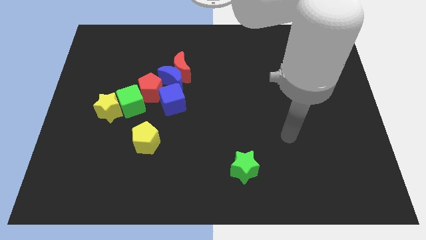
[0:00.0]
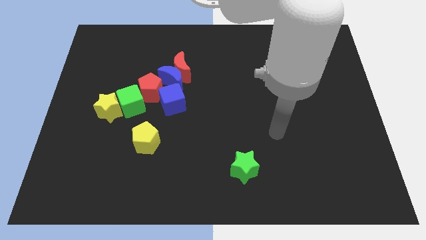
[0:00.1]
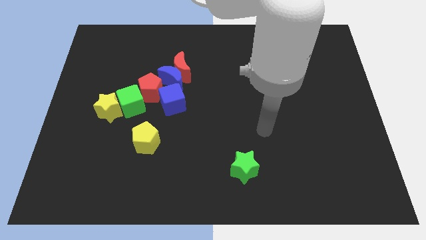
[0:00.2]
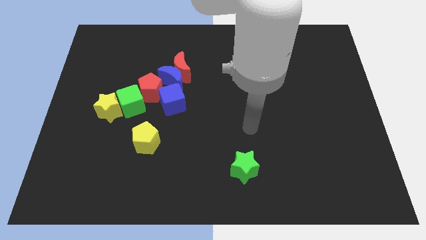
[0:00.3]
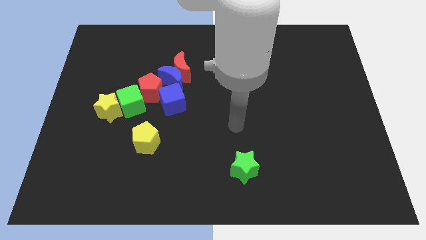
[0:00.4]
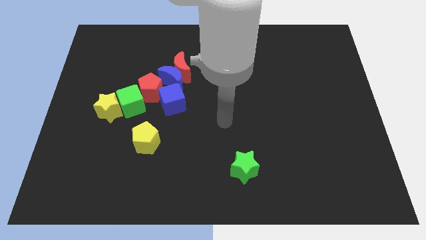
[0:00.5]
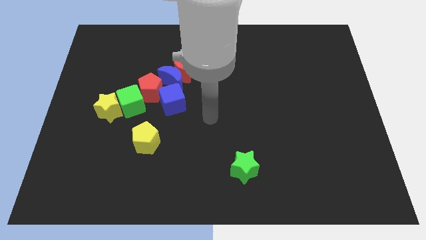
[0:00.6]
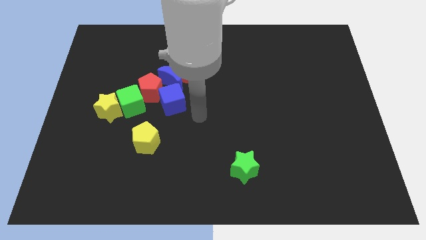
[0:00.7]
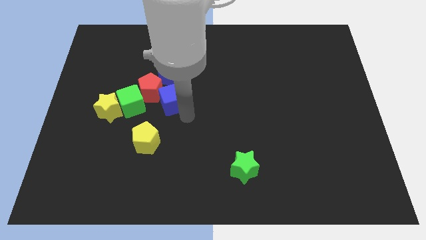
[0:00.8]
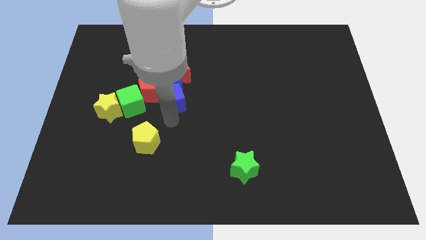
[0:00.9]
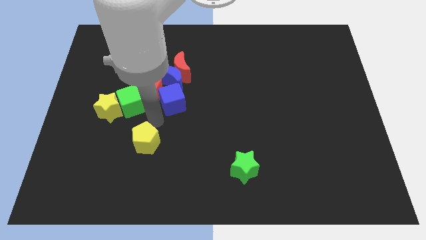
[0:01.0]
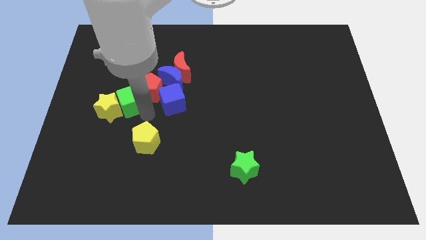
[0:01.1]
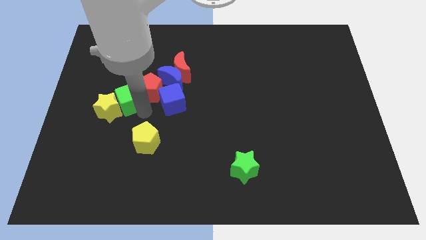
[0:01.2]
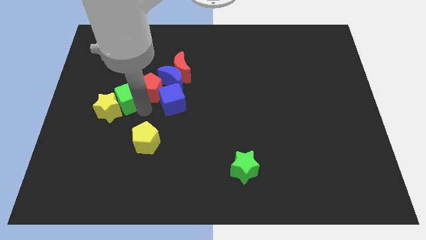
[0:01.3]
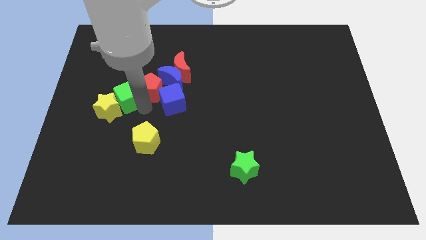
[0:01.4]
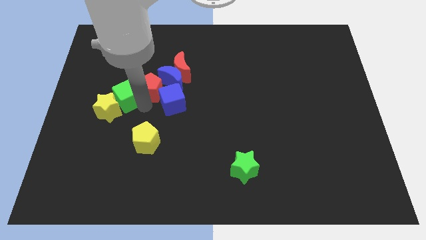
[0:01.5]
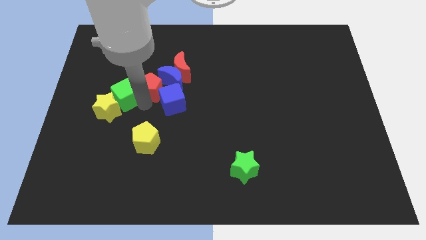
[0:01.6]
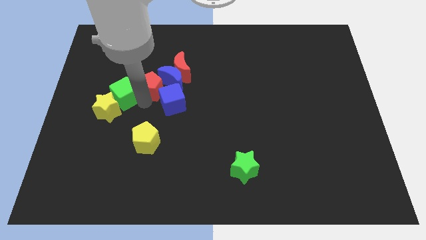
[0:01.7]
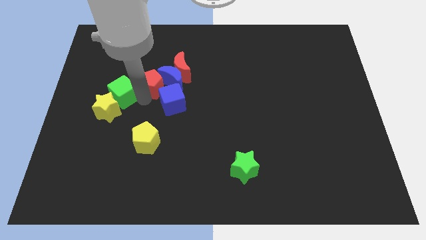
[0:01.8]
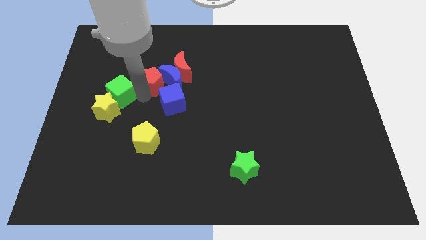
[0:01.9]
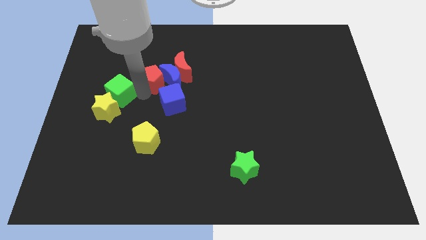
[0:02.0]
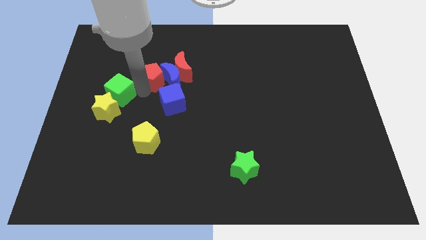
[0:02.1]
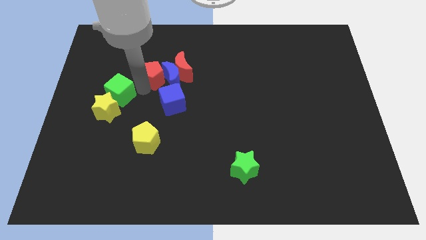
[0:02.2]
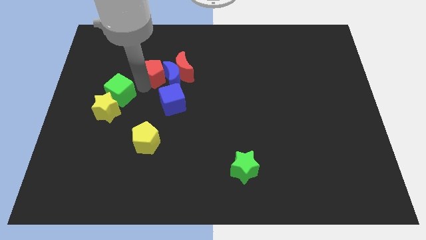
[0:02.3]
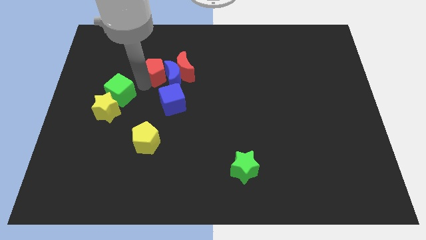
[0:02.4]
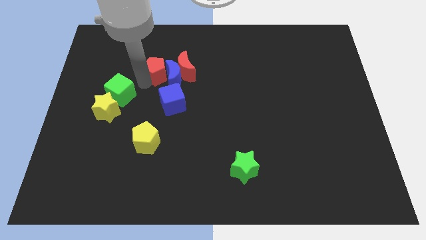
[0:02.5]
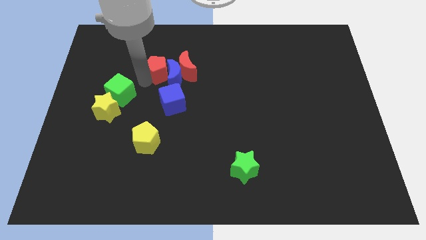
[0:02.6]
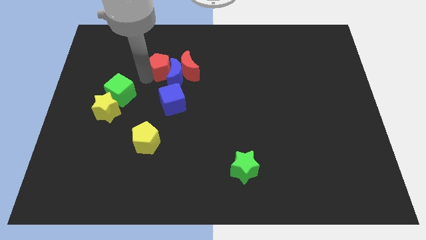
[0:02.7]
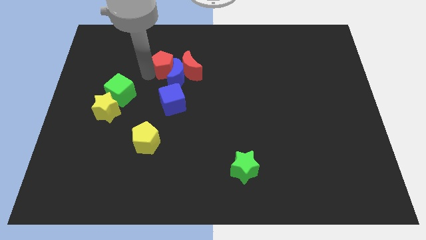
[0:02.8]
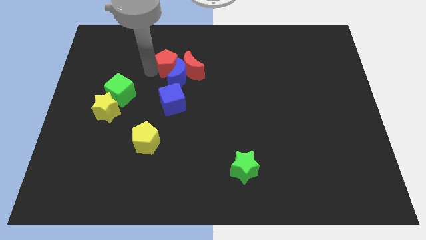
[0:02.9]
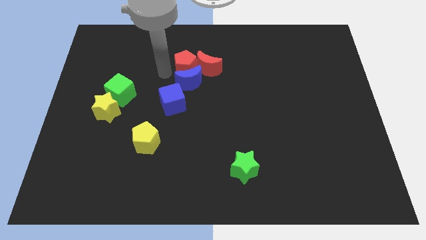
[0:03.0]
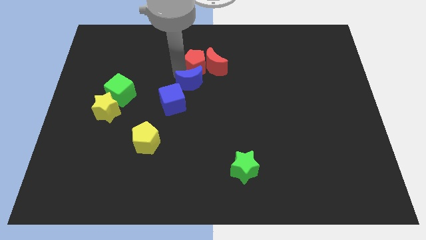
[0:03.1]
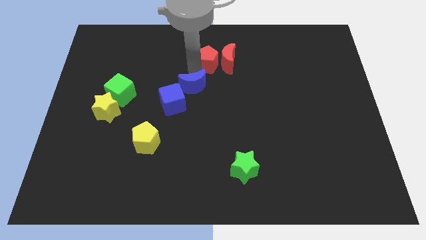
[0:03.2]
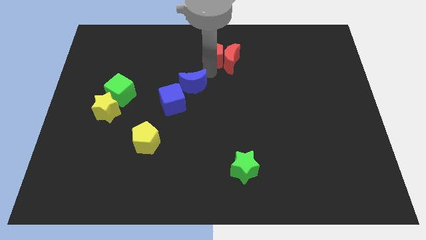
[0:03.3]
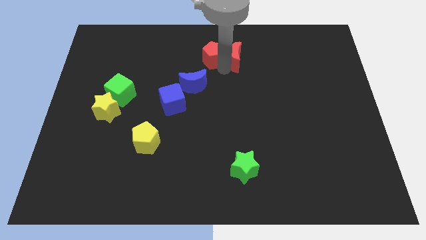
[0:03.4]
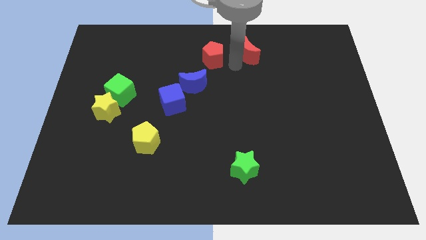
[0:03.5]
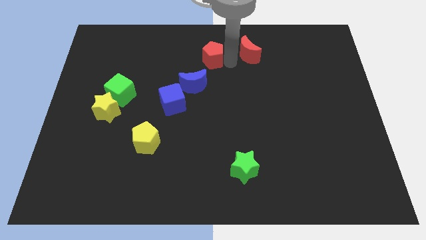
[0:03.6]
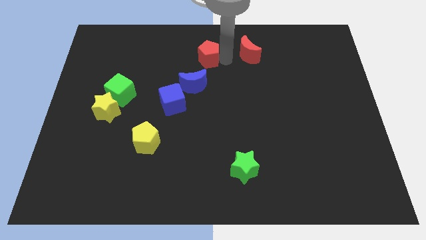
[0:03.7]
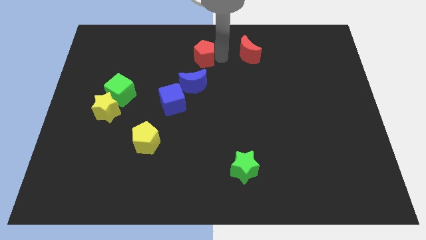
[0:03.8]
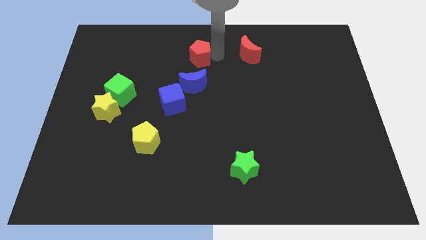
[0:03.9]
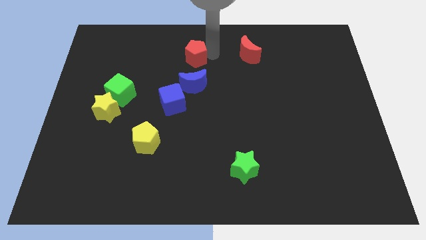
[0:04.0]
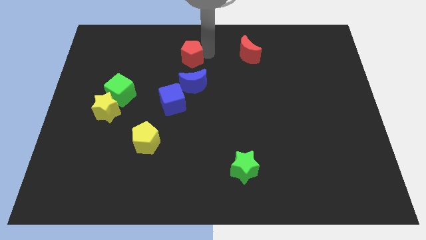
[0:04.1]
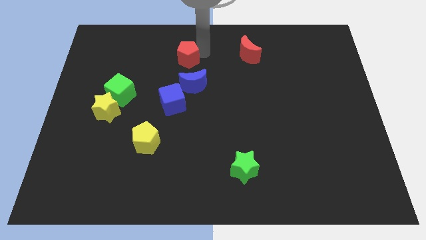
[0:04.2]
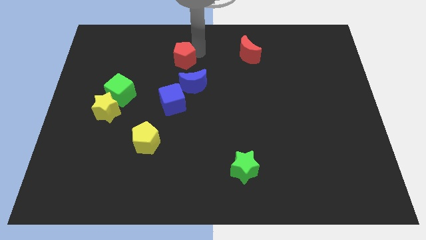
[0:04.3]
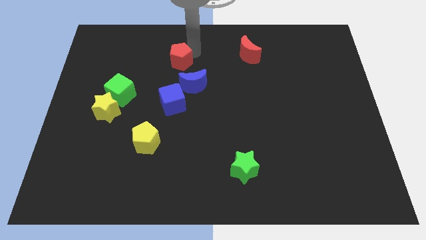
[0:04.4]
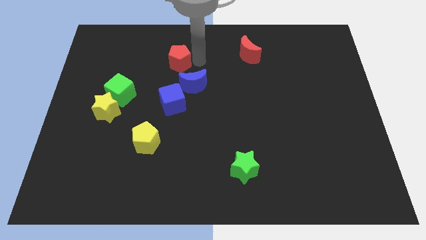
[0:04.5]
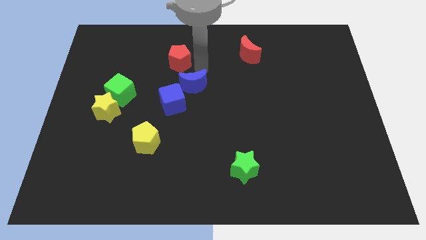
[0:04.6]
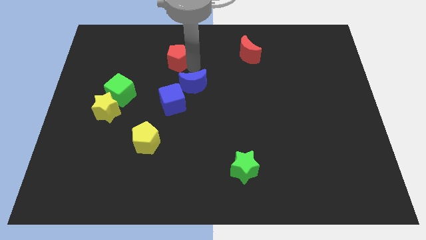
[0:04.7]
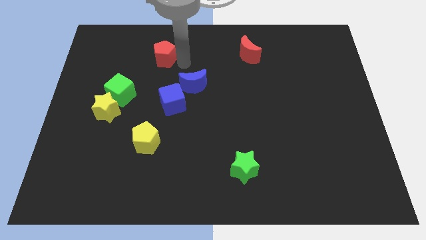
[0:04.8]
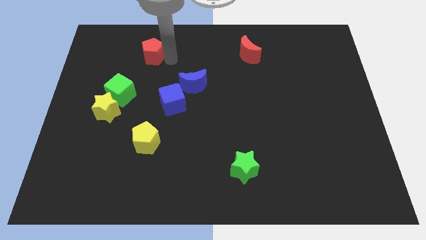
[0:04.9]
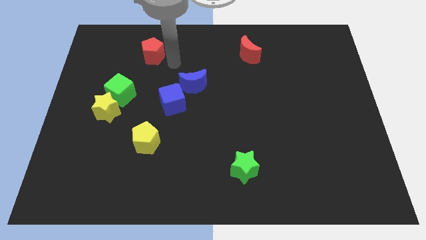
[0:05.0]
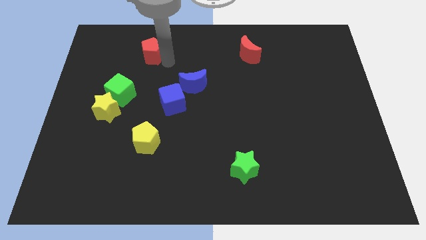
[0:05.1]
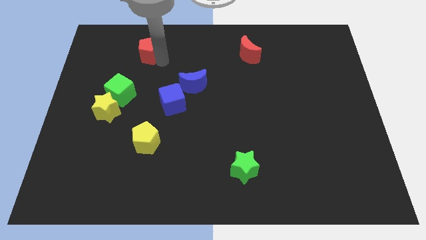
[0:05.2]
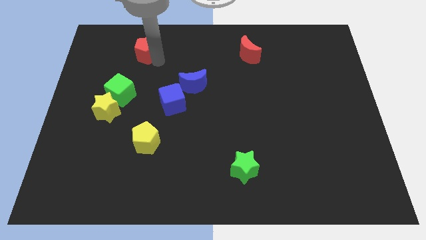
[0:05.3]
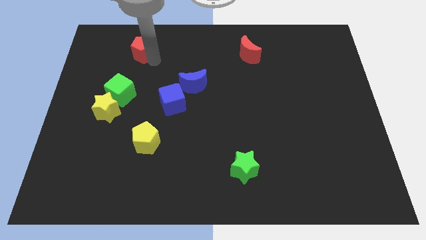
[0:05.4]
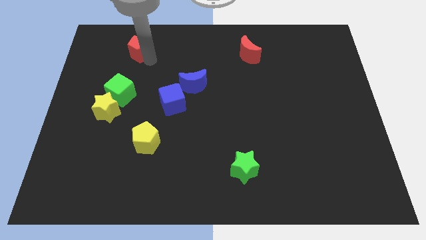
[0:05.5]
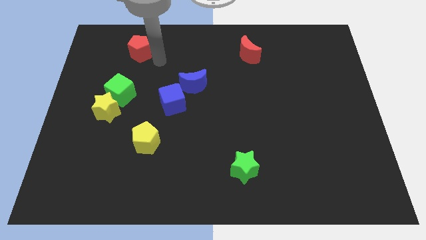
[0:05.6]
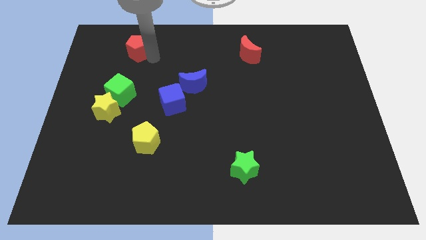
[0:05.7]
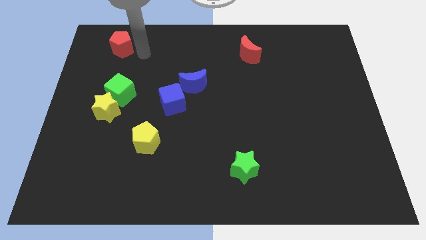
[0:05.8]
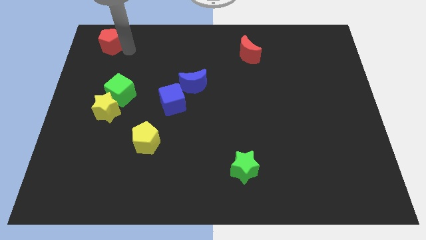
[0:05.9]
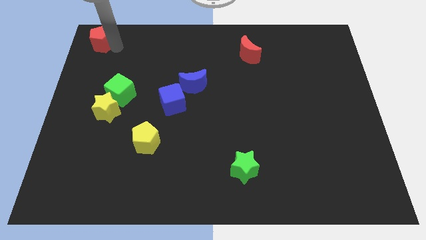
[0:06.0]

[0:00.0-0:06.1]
slide the red pentagon to the top left corner
